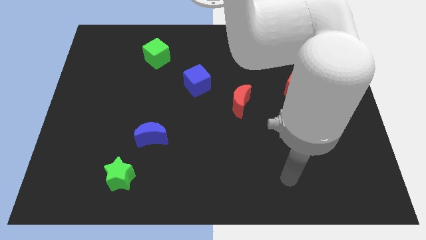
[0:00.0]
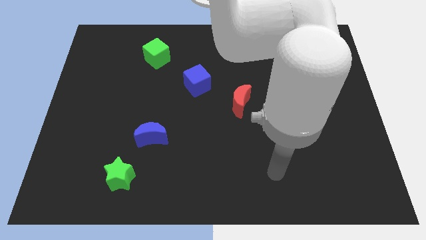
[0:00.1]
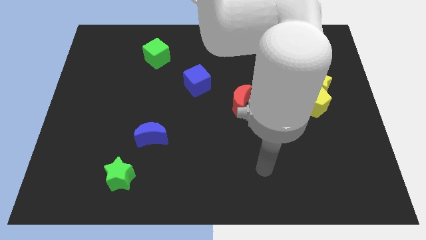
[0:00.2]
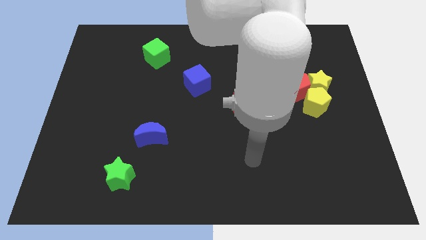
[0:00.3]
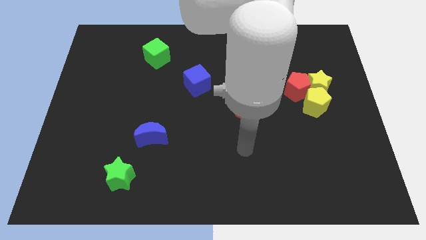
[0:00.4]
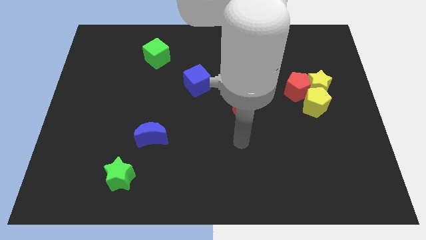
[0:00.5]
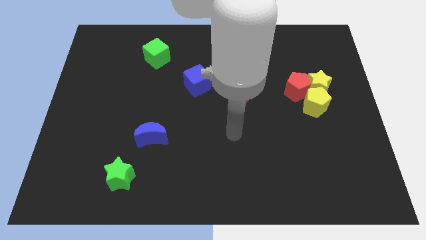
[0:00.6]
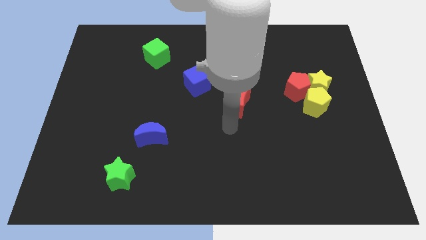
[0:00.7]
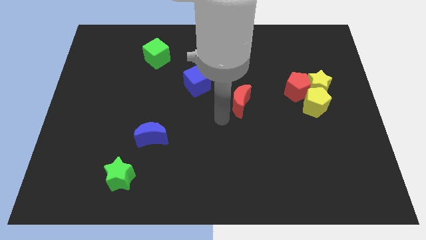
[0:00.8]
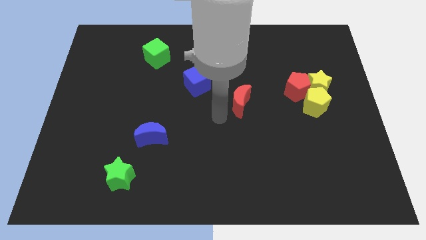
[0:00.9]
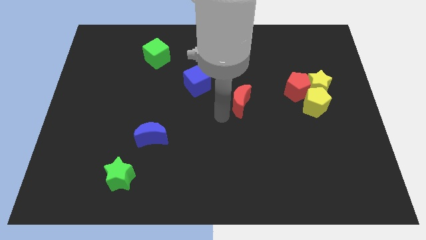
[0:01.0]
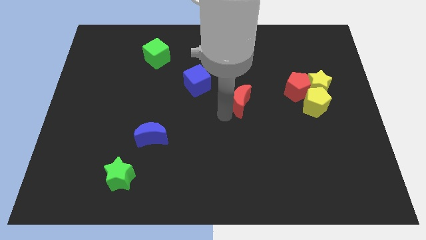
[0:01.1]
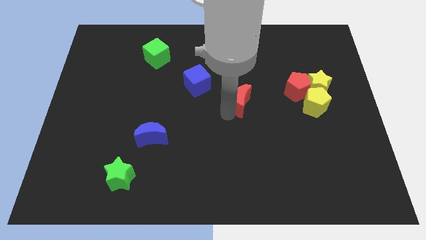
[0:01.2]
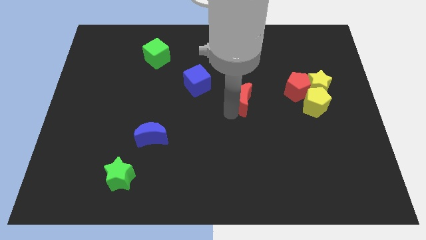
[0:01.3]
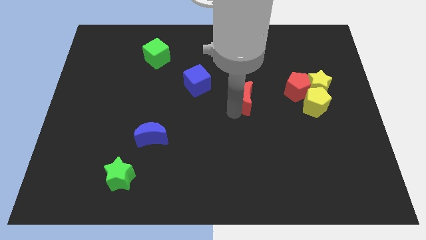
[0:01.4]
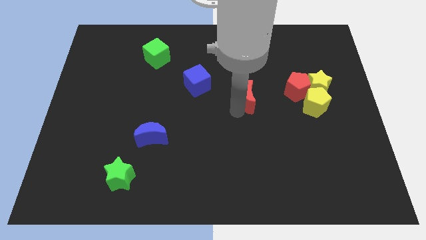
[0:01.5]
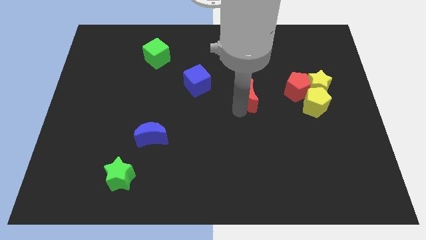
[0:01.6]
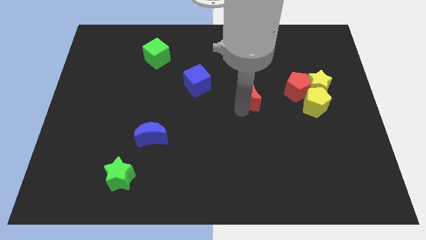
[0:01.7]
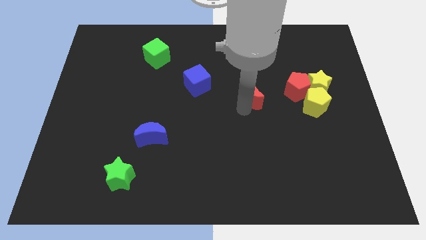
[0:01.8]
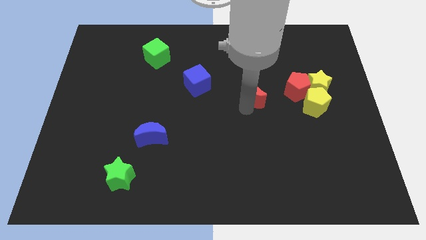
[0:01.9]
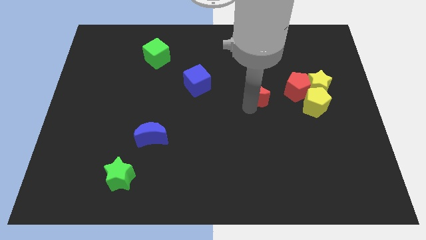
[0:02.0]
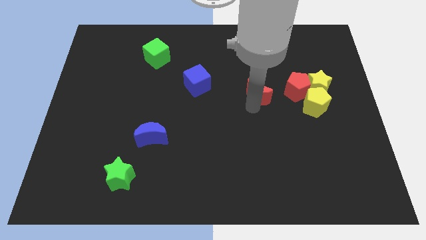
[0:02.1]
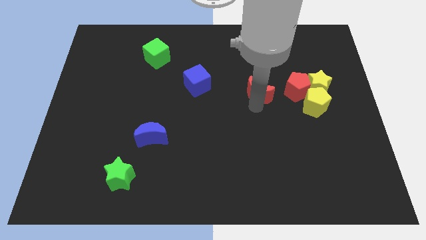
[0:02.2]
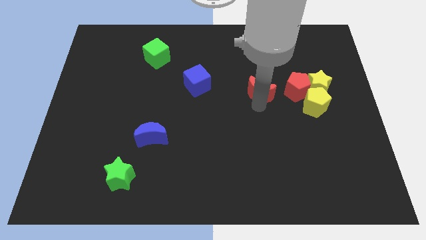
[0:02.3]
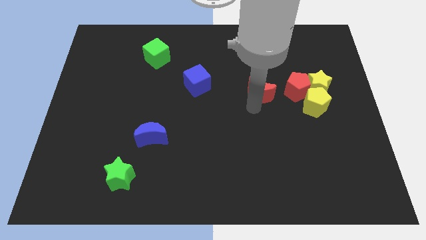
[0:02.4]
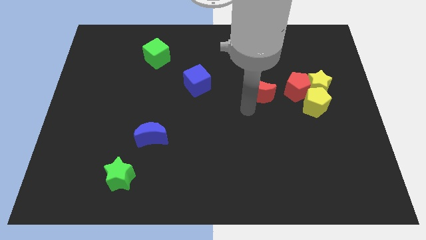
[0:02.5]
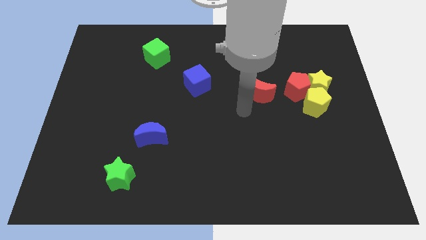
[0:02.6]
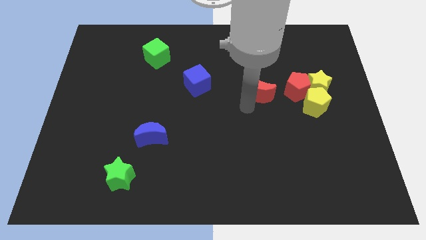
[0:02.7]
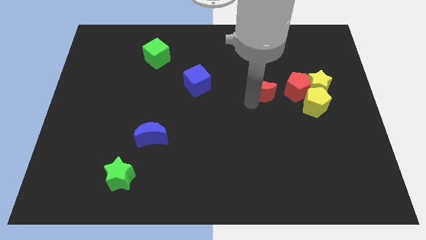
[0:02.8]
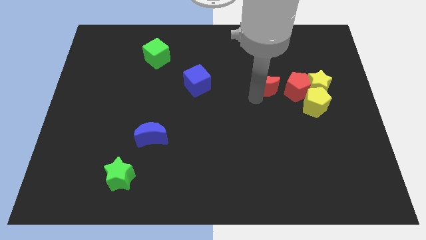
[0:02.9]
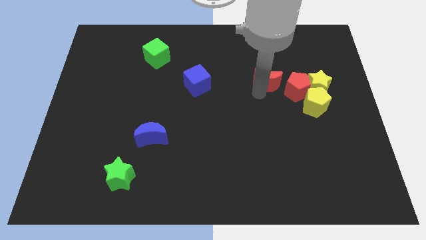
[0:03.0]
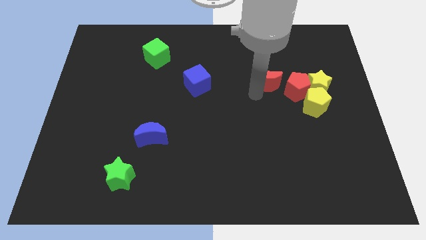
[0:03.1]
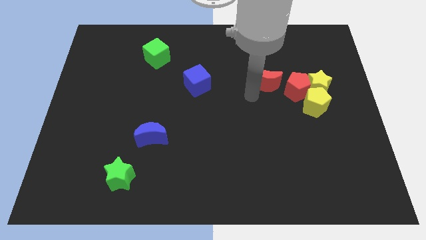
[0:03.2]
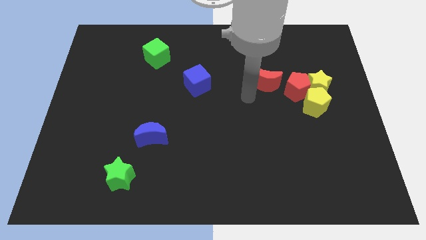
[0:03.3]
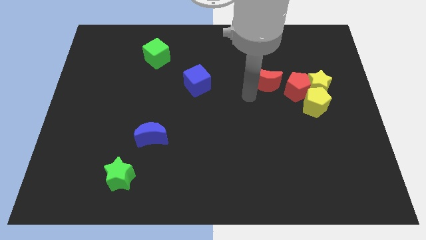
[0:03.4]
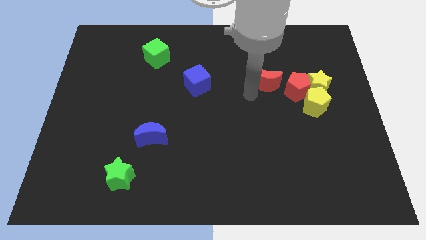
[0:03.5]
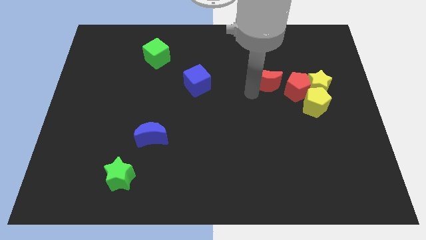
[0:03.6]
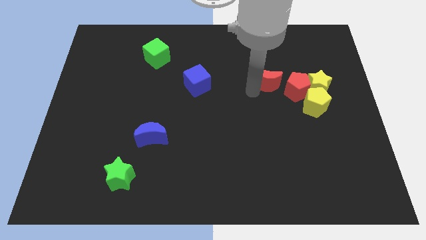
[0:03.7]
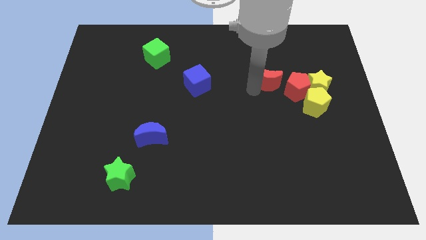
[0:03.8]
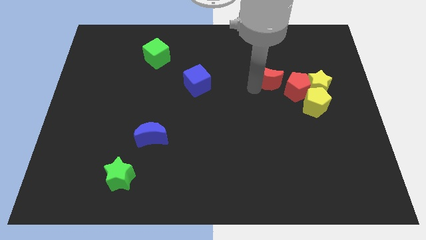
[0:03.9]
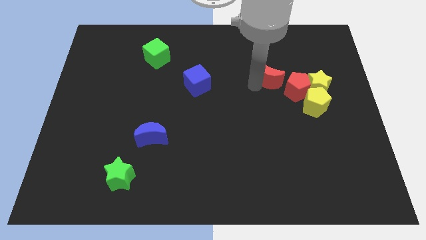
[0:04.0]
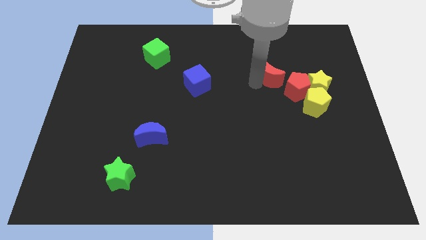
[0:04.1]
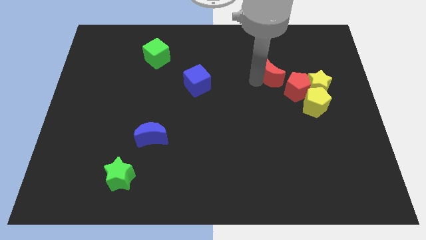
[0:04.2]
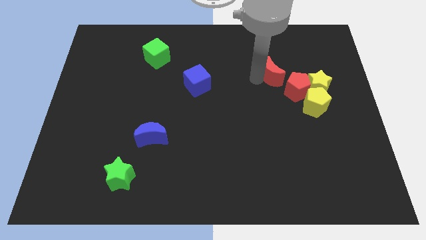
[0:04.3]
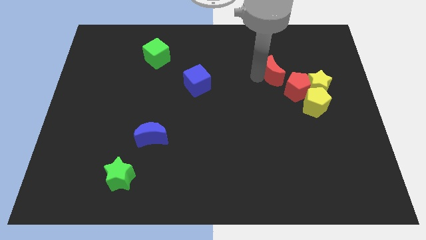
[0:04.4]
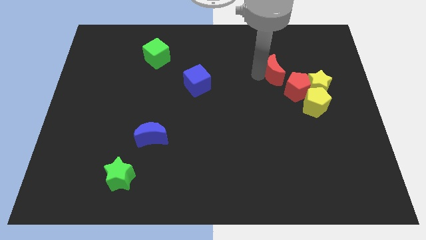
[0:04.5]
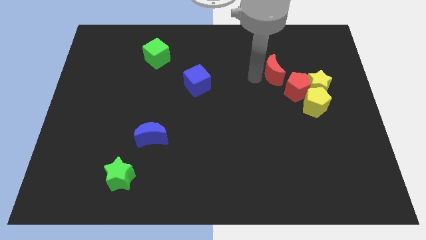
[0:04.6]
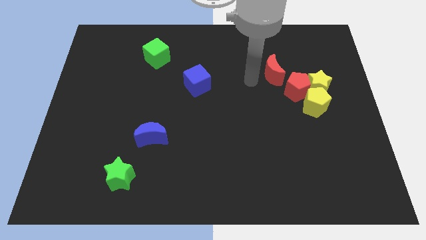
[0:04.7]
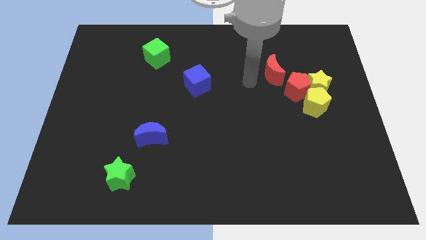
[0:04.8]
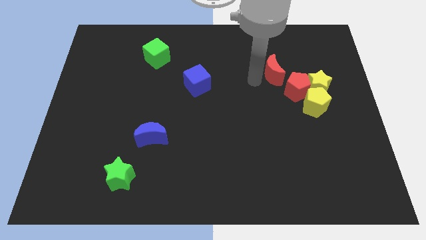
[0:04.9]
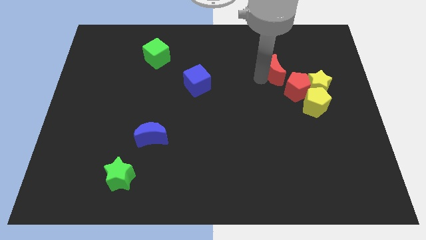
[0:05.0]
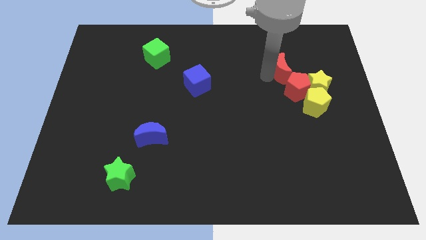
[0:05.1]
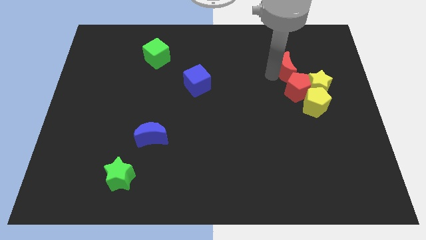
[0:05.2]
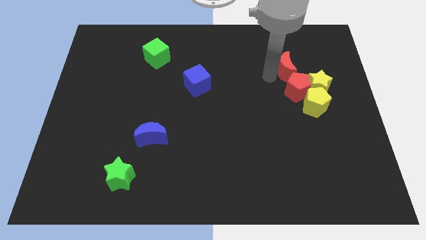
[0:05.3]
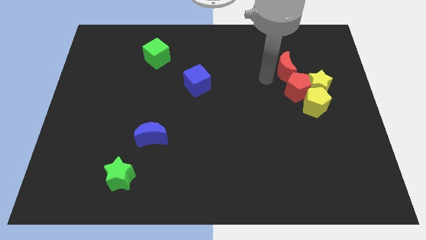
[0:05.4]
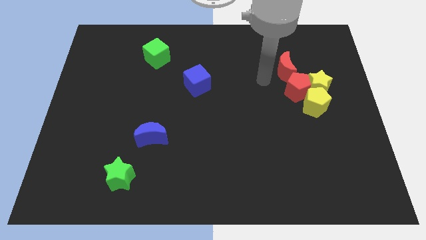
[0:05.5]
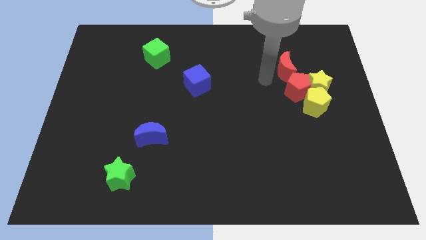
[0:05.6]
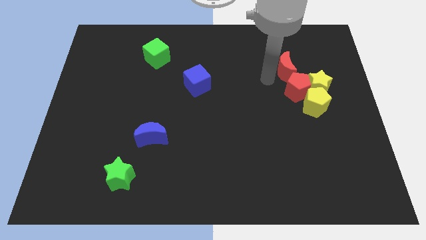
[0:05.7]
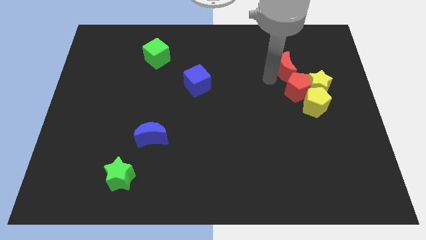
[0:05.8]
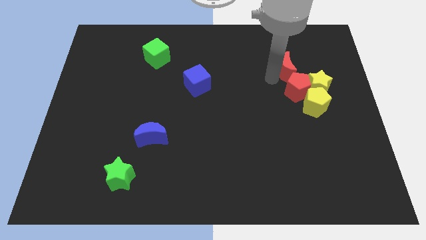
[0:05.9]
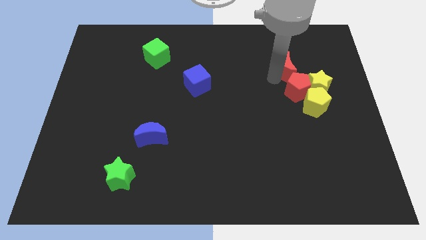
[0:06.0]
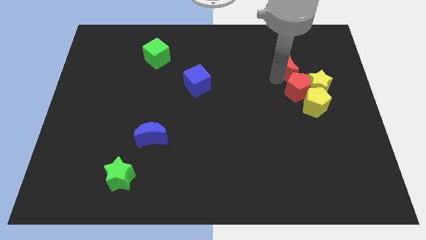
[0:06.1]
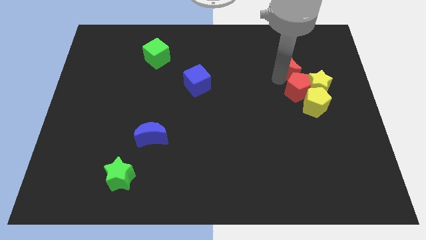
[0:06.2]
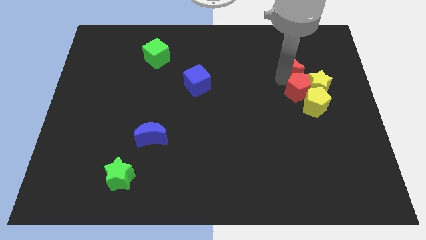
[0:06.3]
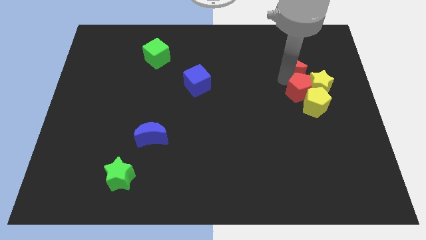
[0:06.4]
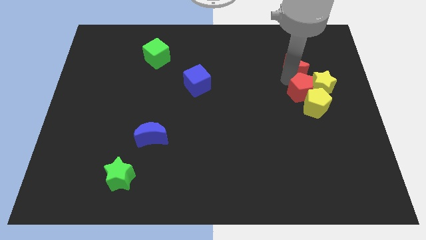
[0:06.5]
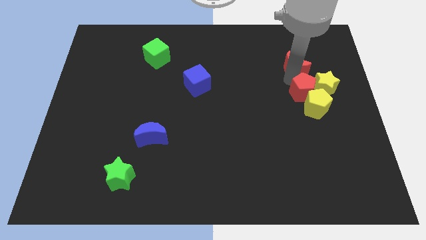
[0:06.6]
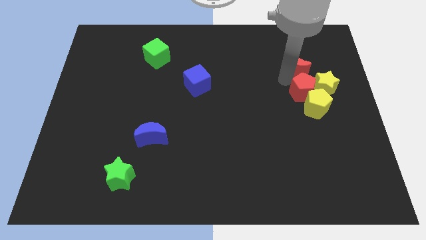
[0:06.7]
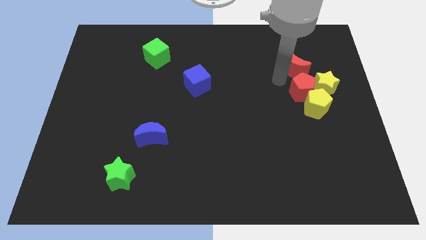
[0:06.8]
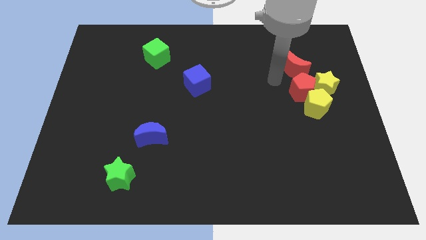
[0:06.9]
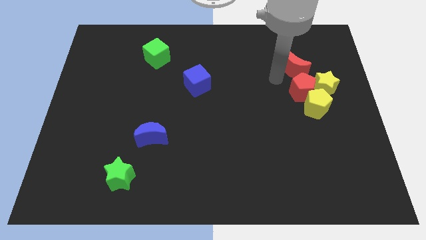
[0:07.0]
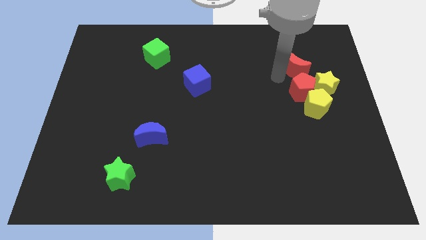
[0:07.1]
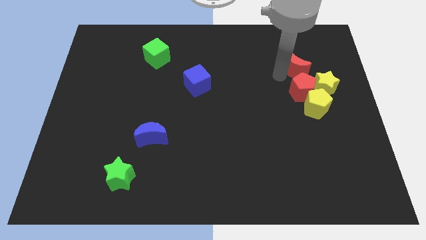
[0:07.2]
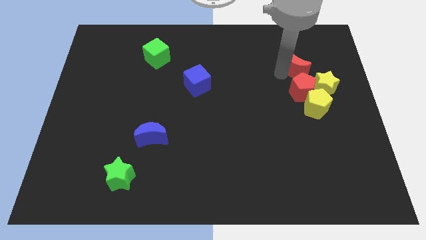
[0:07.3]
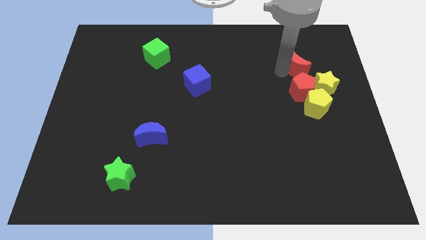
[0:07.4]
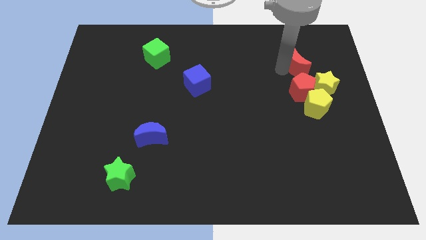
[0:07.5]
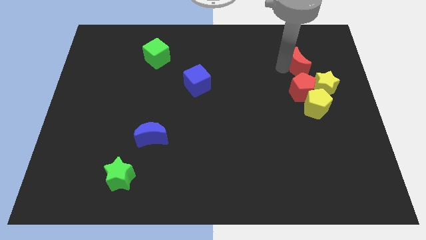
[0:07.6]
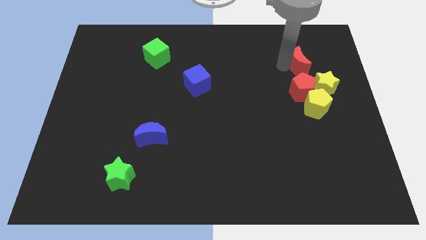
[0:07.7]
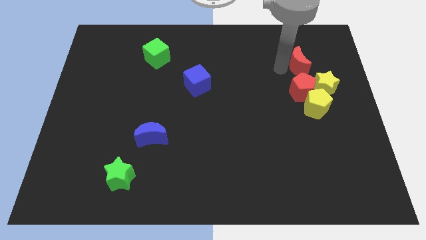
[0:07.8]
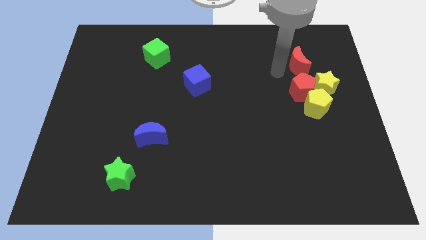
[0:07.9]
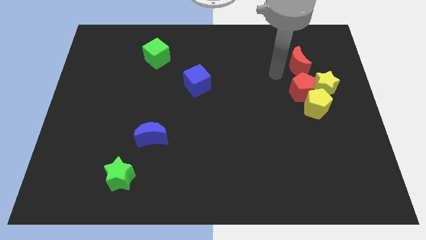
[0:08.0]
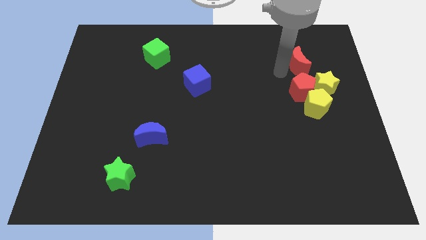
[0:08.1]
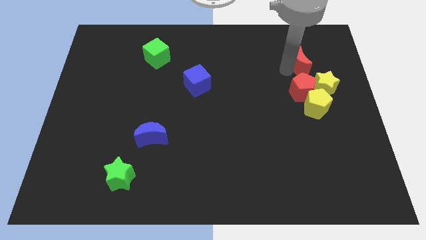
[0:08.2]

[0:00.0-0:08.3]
push the red moon to the top of the yellow star

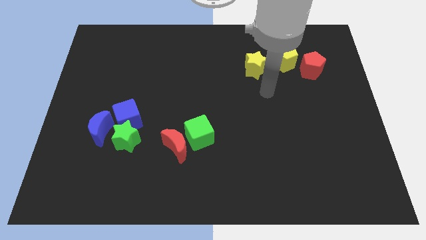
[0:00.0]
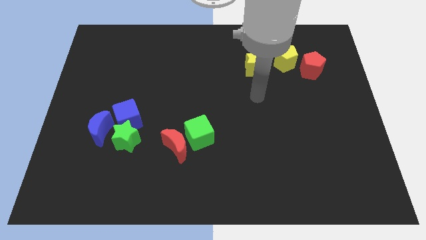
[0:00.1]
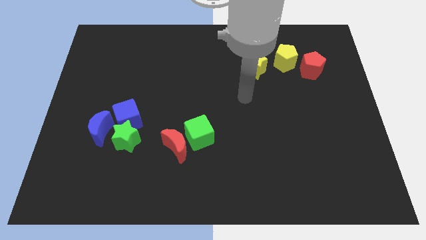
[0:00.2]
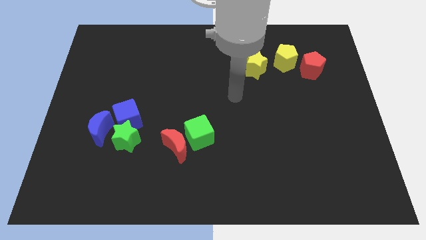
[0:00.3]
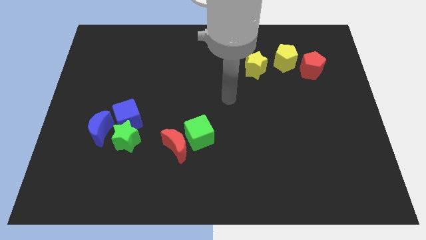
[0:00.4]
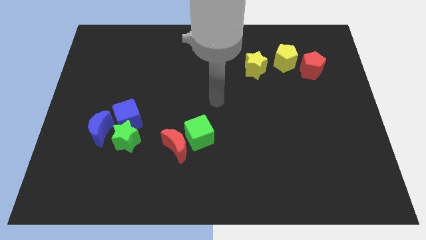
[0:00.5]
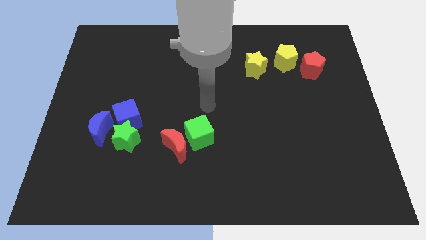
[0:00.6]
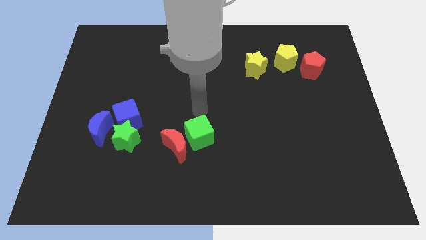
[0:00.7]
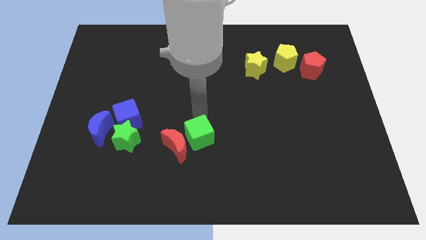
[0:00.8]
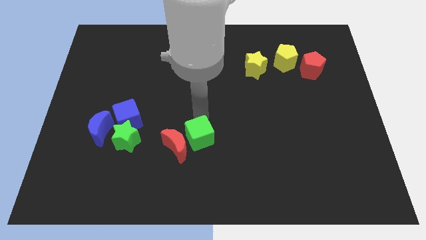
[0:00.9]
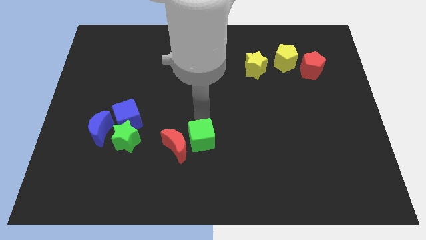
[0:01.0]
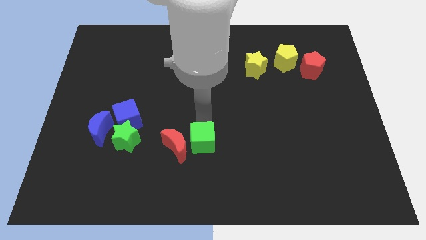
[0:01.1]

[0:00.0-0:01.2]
push the green cube diagonally down and to the right of the red moon
